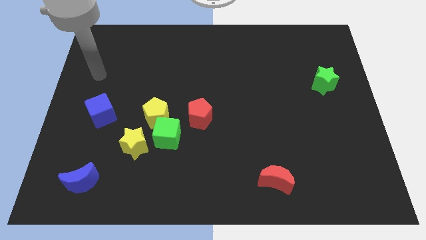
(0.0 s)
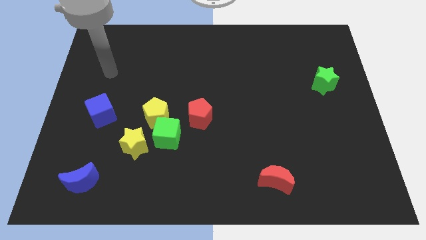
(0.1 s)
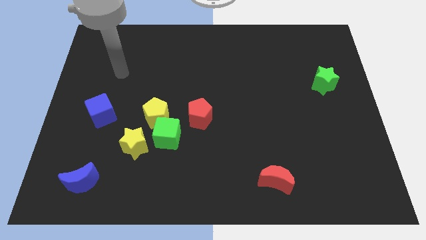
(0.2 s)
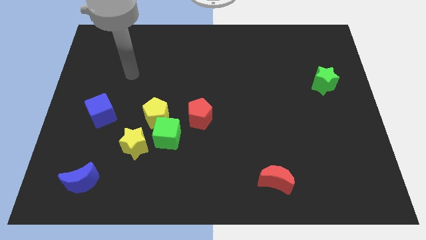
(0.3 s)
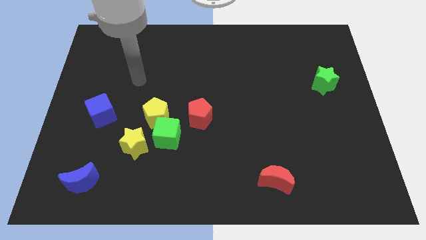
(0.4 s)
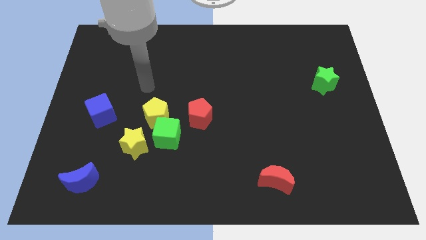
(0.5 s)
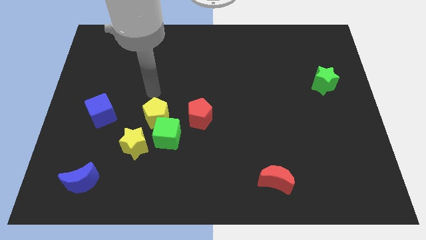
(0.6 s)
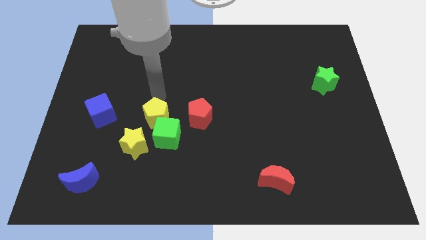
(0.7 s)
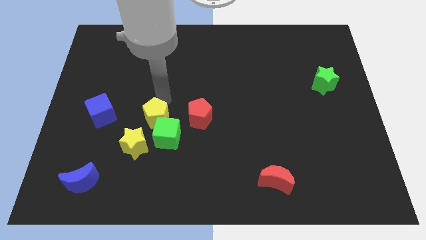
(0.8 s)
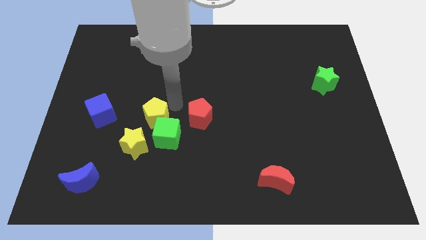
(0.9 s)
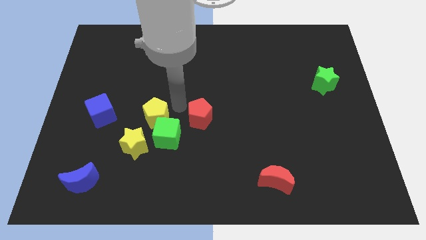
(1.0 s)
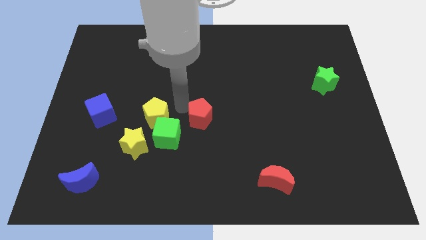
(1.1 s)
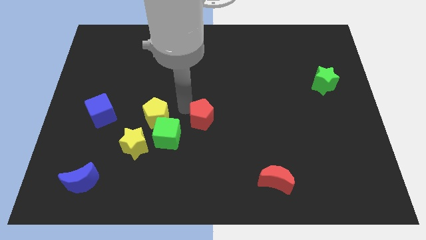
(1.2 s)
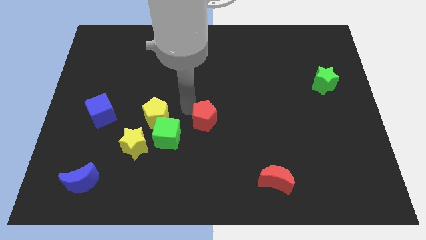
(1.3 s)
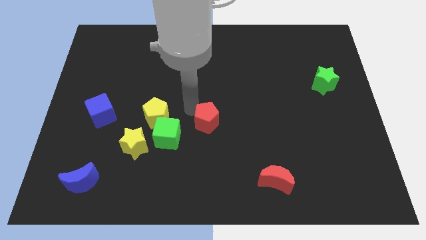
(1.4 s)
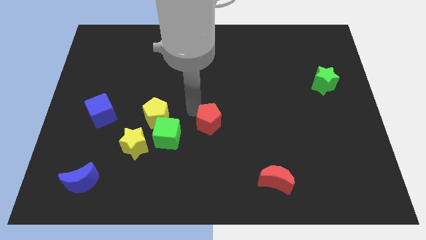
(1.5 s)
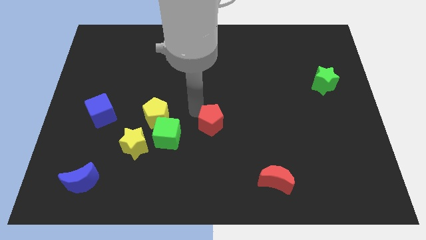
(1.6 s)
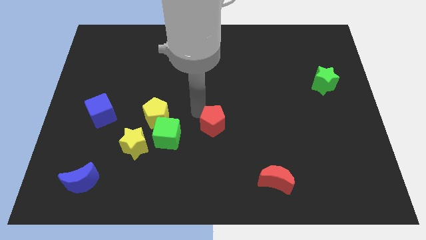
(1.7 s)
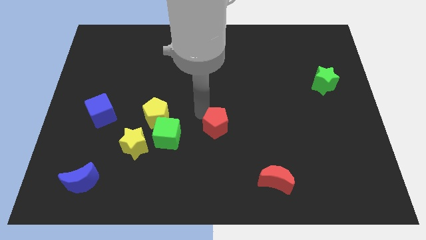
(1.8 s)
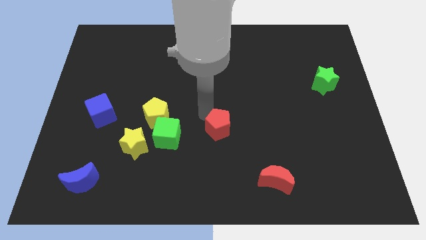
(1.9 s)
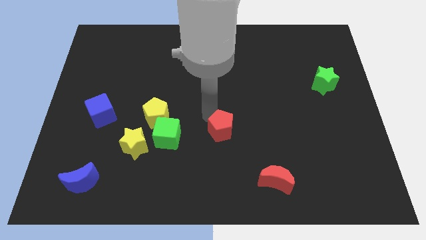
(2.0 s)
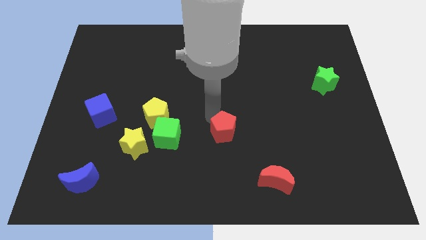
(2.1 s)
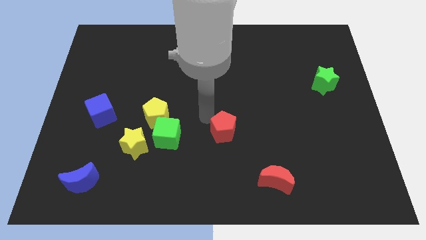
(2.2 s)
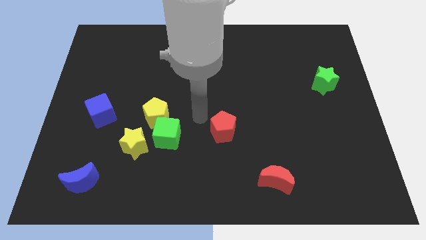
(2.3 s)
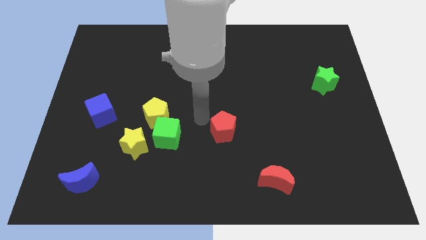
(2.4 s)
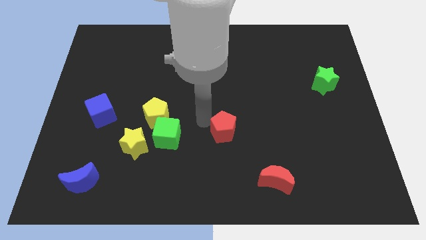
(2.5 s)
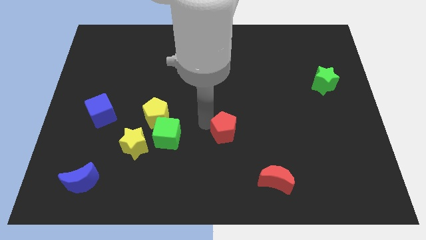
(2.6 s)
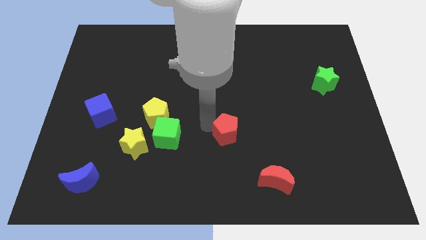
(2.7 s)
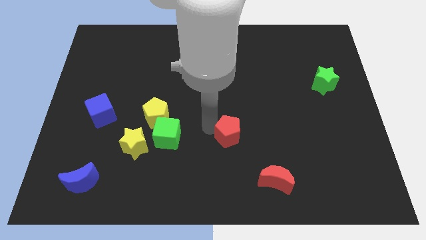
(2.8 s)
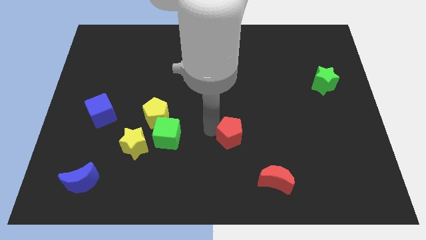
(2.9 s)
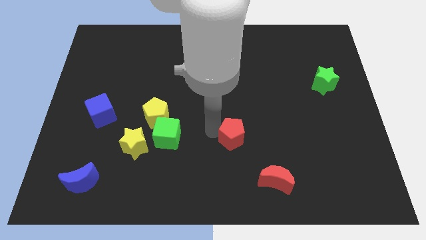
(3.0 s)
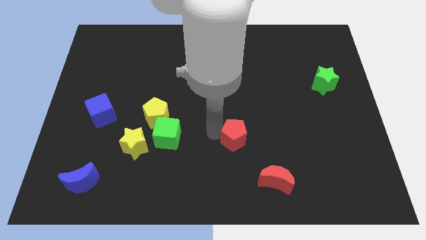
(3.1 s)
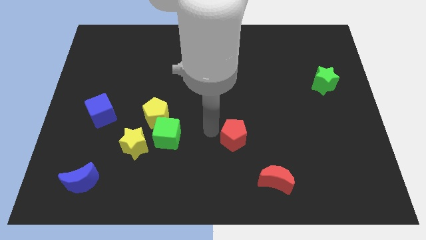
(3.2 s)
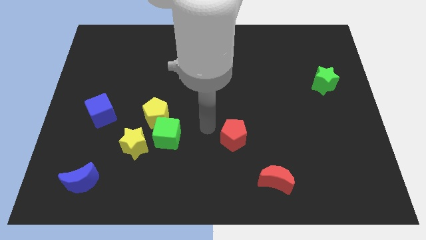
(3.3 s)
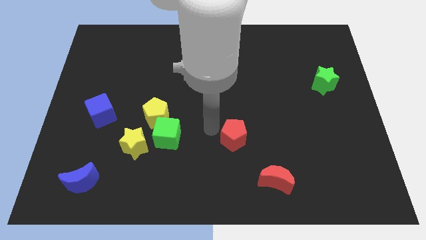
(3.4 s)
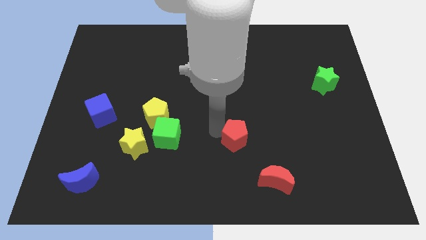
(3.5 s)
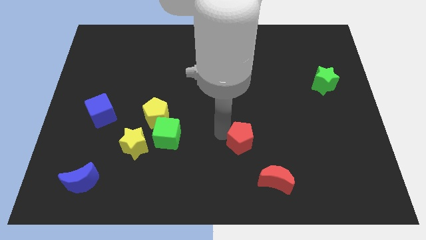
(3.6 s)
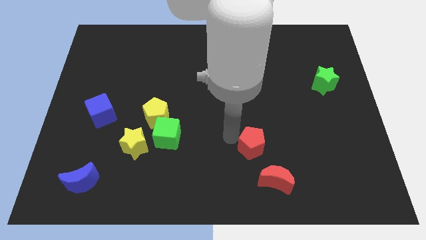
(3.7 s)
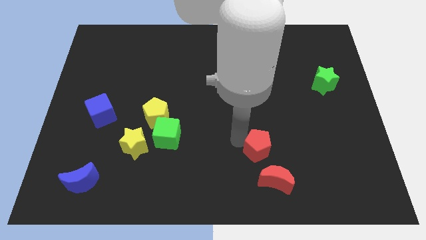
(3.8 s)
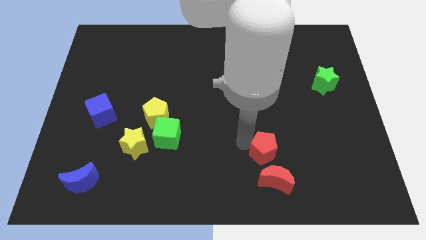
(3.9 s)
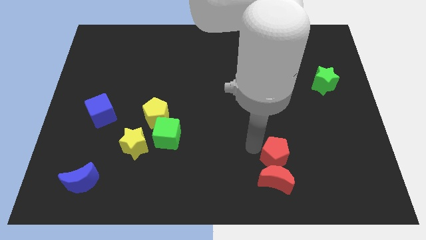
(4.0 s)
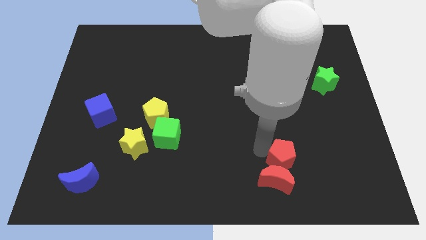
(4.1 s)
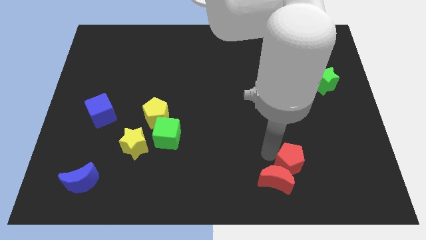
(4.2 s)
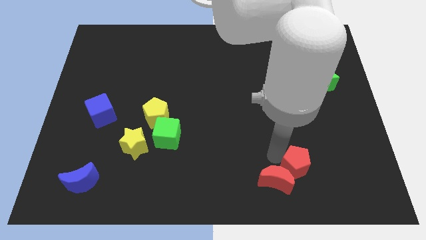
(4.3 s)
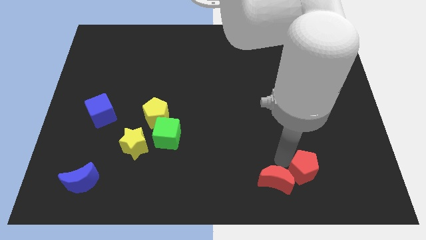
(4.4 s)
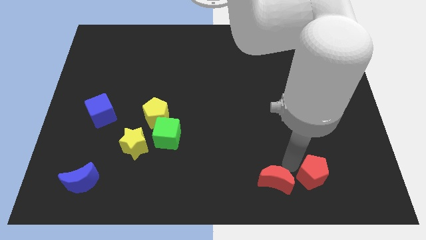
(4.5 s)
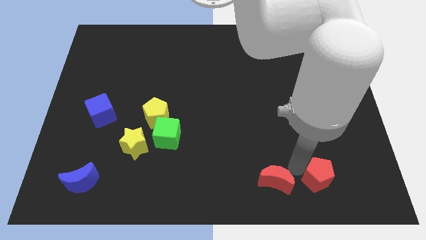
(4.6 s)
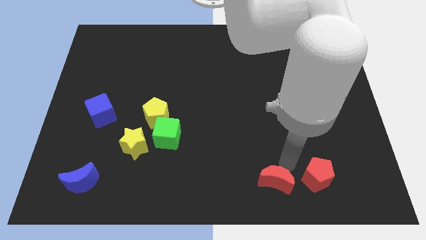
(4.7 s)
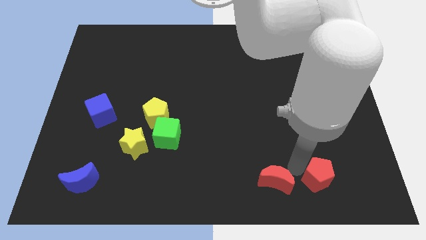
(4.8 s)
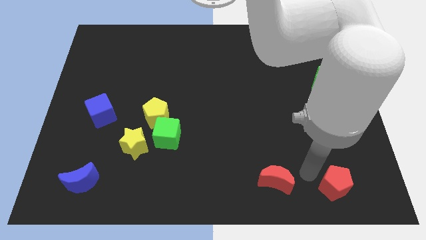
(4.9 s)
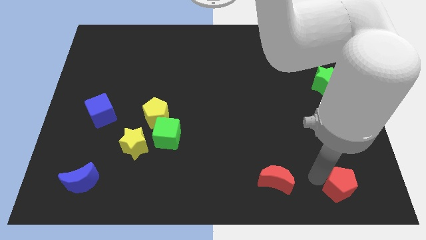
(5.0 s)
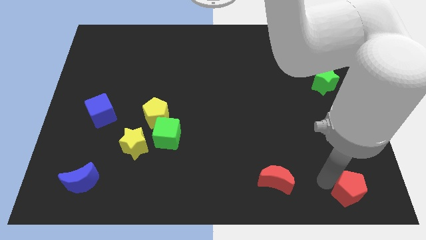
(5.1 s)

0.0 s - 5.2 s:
push the red pentagon to the bottom right

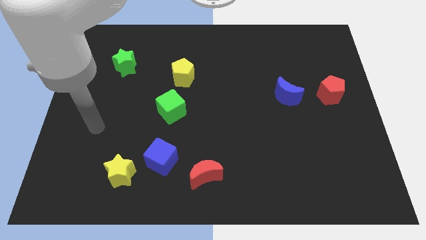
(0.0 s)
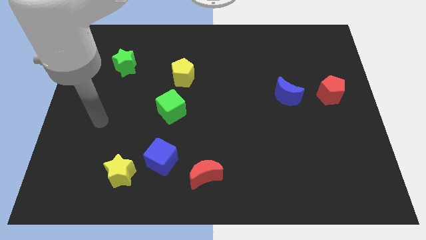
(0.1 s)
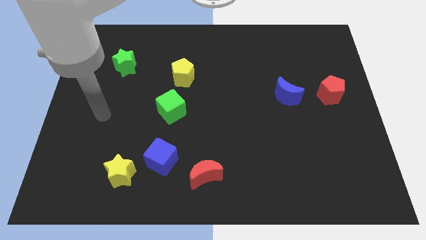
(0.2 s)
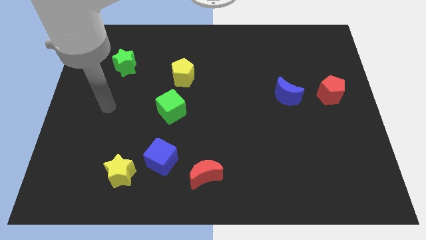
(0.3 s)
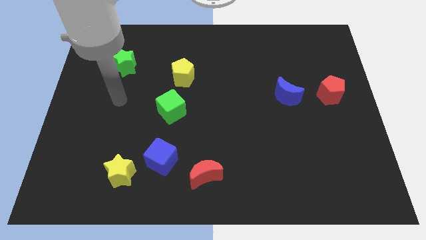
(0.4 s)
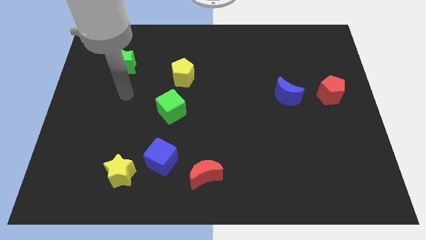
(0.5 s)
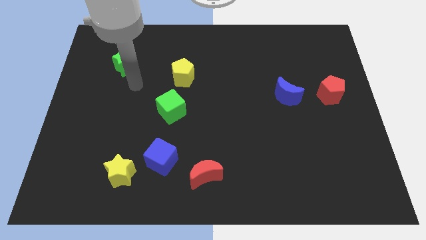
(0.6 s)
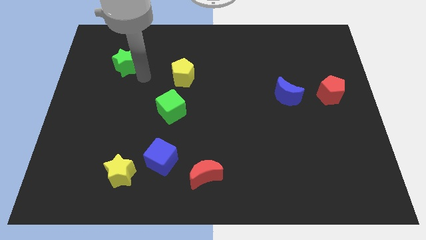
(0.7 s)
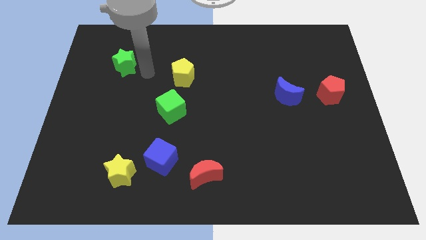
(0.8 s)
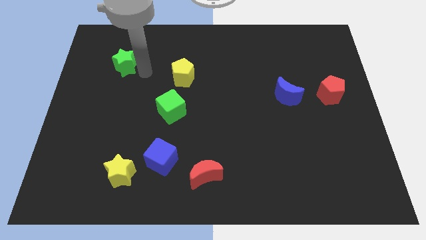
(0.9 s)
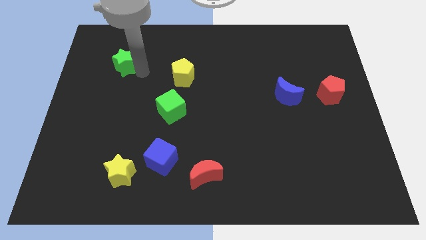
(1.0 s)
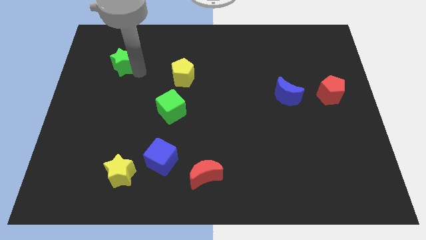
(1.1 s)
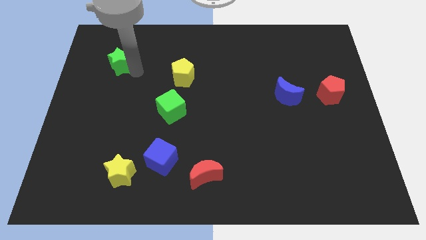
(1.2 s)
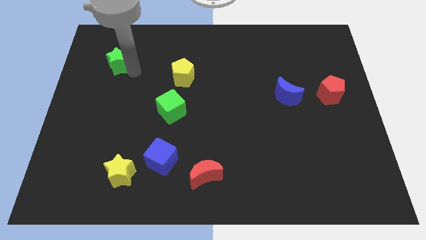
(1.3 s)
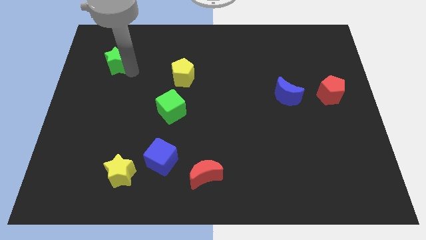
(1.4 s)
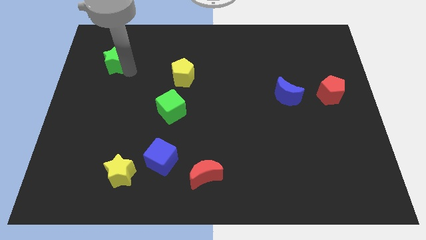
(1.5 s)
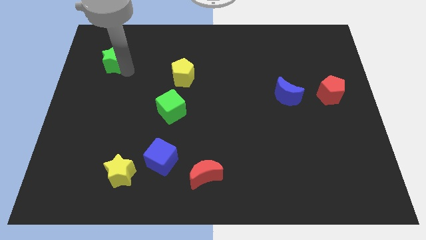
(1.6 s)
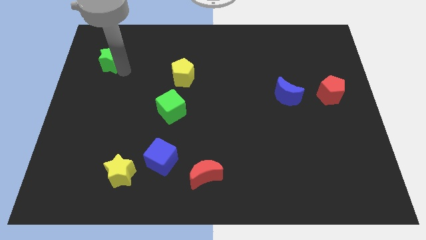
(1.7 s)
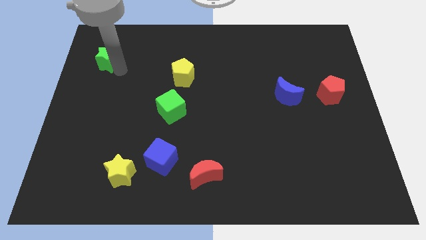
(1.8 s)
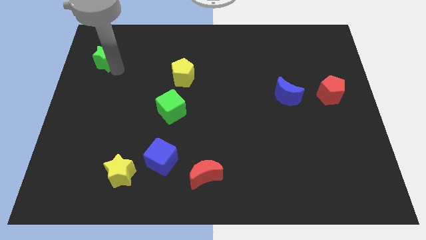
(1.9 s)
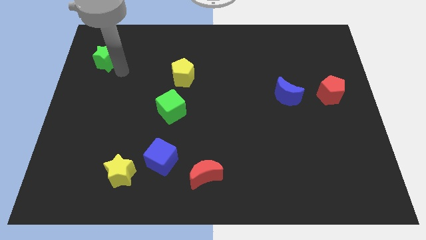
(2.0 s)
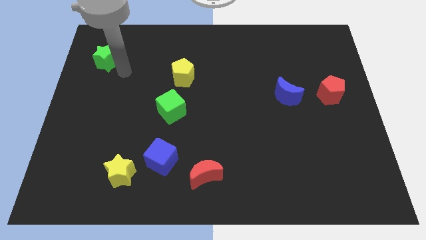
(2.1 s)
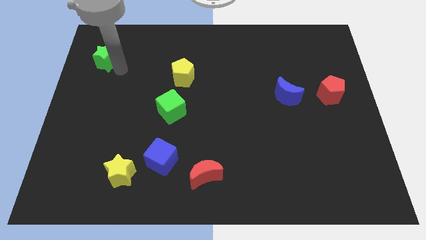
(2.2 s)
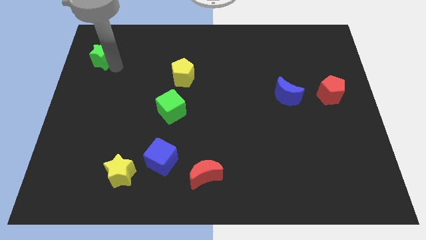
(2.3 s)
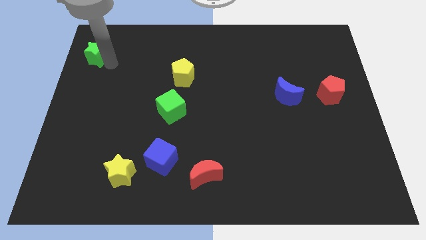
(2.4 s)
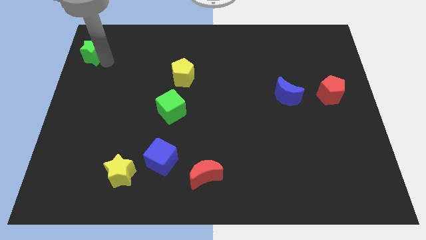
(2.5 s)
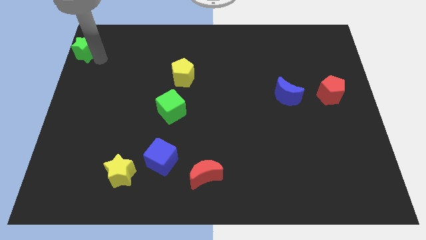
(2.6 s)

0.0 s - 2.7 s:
put the green star to the top left corner
